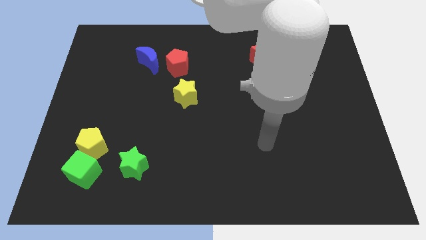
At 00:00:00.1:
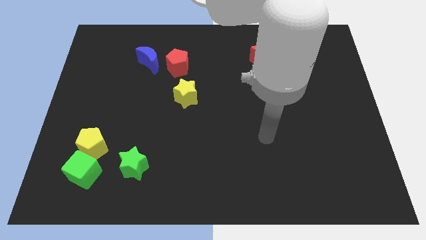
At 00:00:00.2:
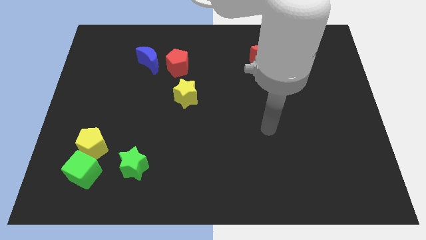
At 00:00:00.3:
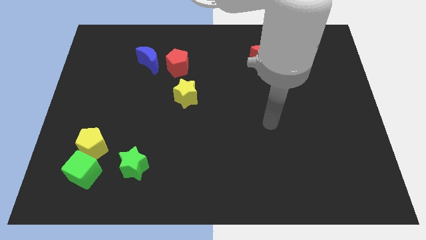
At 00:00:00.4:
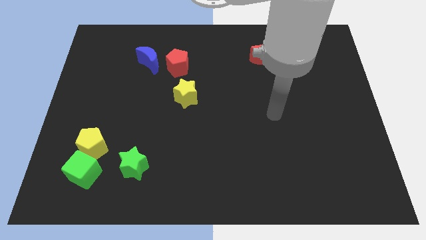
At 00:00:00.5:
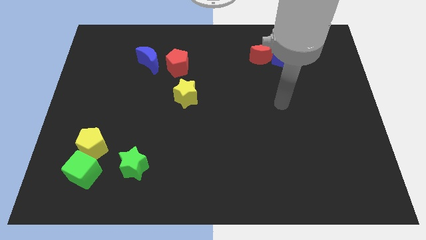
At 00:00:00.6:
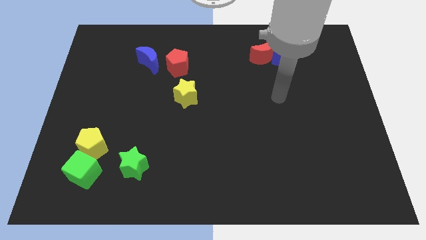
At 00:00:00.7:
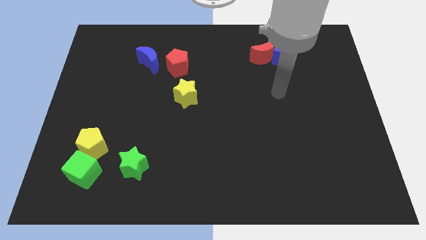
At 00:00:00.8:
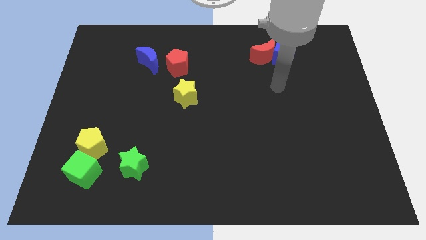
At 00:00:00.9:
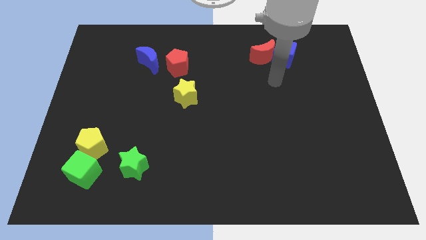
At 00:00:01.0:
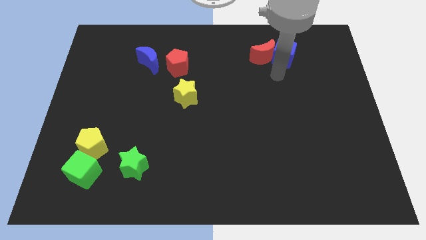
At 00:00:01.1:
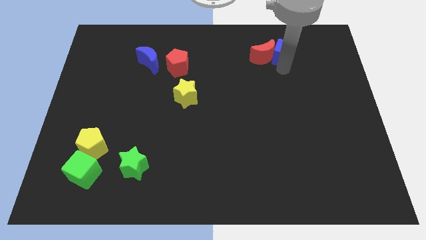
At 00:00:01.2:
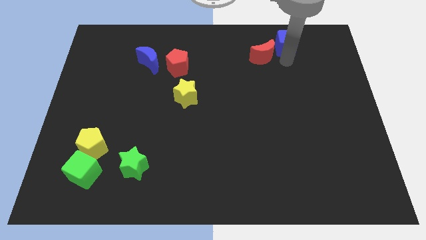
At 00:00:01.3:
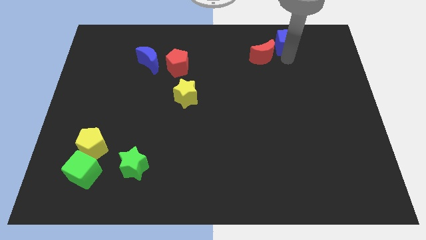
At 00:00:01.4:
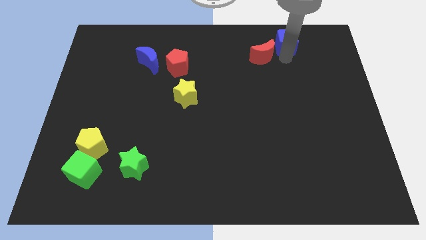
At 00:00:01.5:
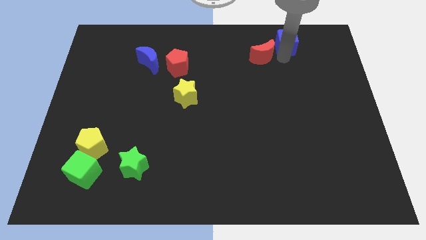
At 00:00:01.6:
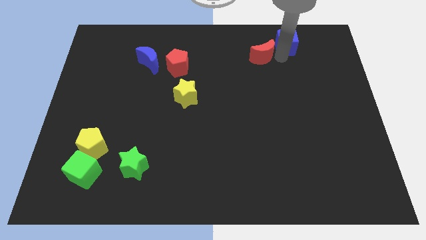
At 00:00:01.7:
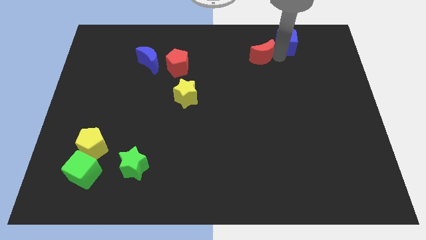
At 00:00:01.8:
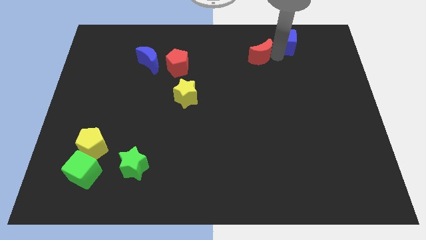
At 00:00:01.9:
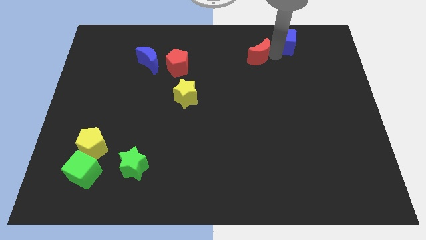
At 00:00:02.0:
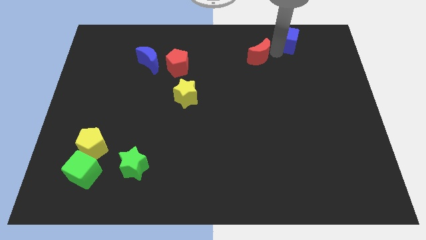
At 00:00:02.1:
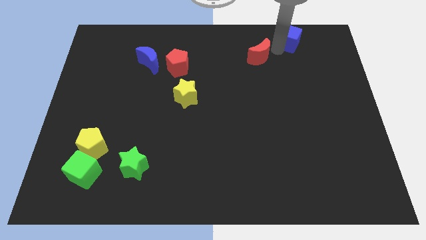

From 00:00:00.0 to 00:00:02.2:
pull the red moon apart from the blue cube

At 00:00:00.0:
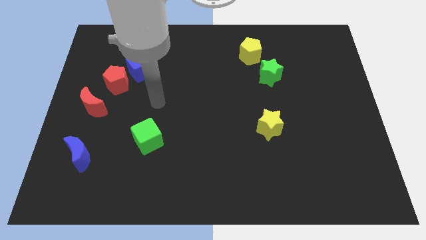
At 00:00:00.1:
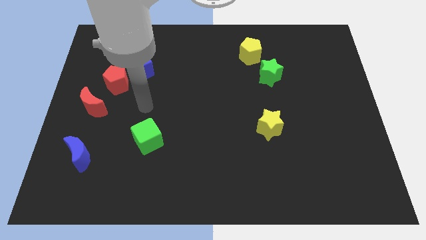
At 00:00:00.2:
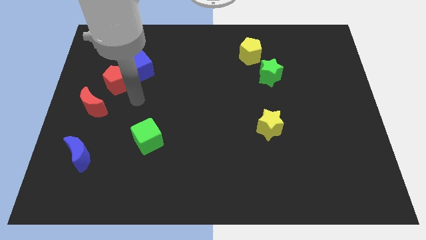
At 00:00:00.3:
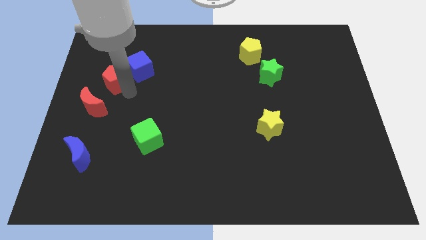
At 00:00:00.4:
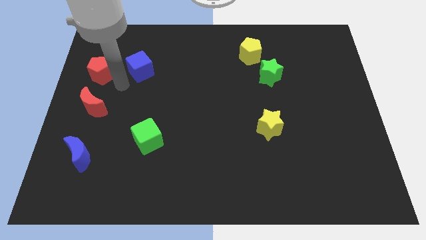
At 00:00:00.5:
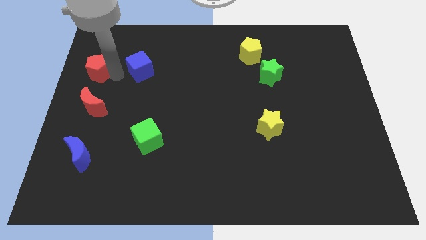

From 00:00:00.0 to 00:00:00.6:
pull the blue cube apart from the red pentagon

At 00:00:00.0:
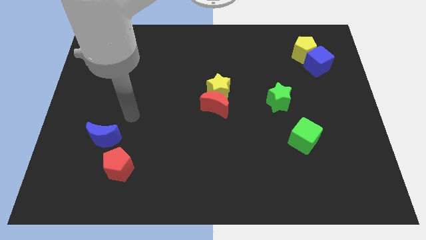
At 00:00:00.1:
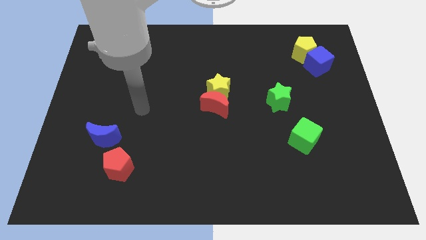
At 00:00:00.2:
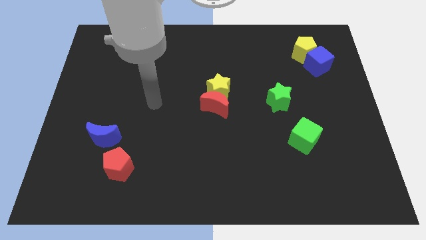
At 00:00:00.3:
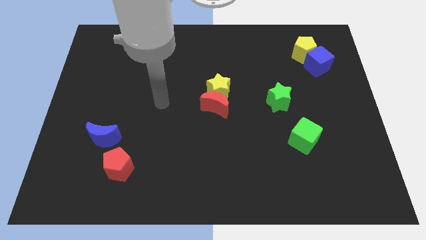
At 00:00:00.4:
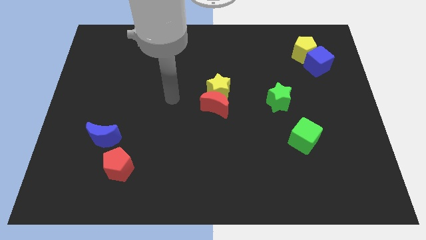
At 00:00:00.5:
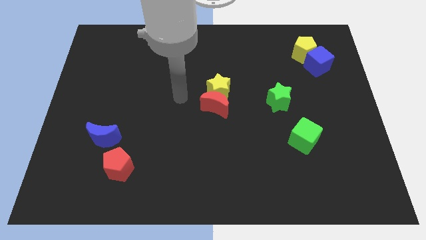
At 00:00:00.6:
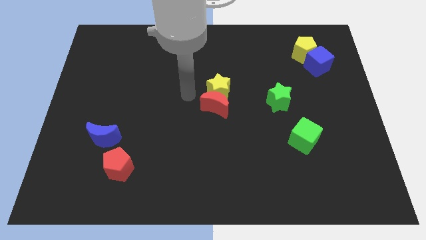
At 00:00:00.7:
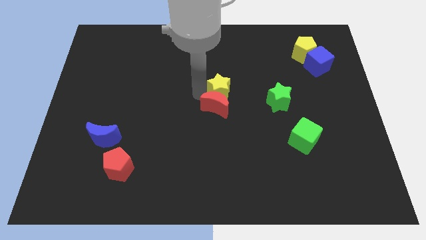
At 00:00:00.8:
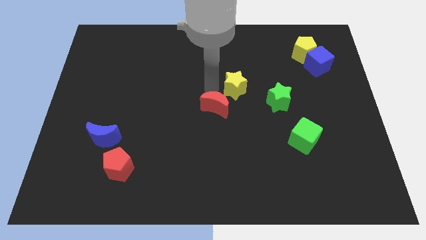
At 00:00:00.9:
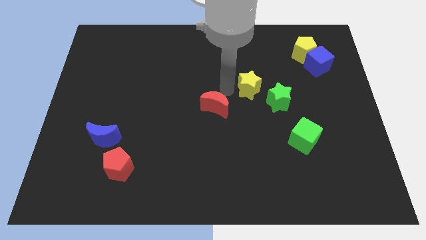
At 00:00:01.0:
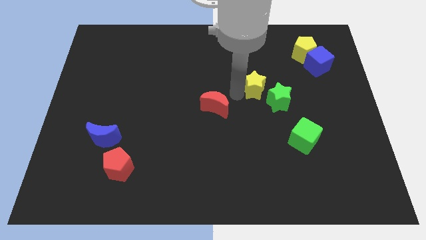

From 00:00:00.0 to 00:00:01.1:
pull the red moon apart from the yellow star

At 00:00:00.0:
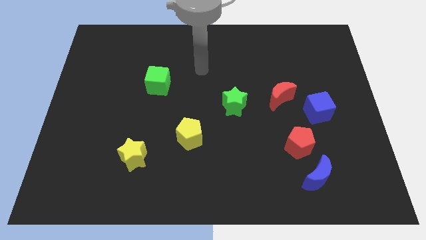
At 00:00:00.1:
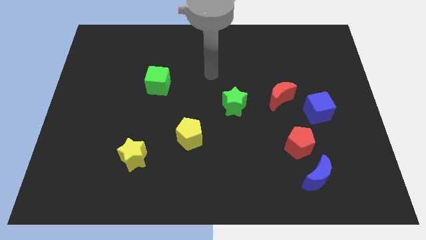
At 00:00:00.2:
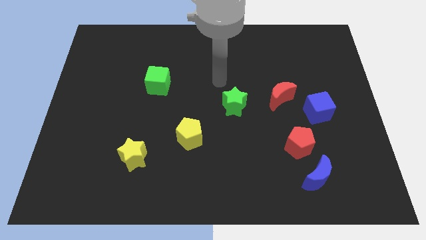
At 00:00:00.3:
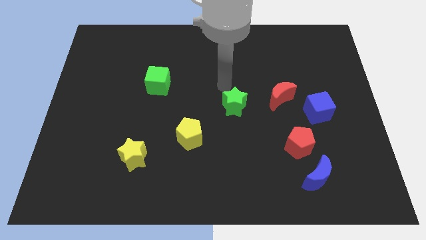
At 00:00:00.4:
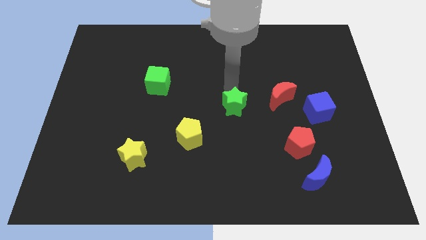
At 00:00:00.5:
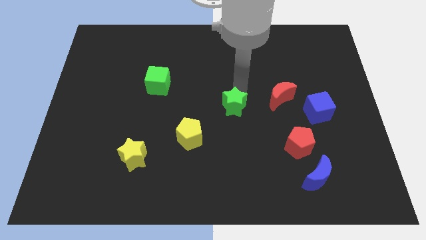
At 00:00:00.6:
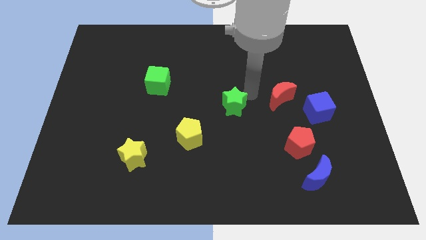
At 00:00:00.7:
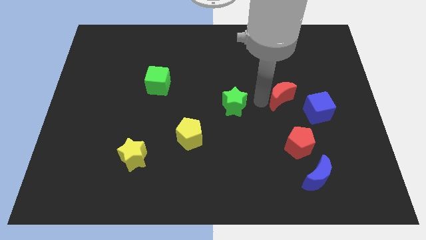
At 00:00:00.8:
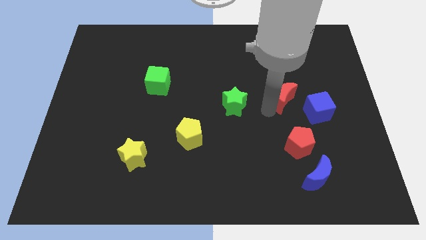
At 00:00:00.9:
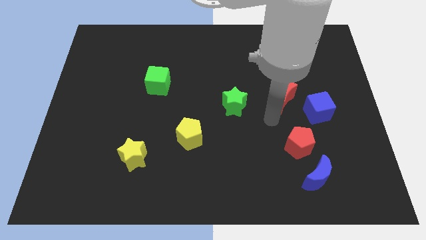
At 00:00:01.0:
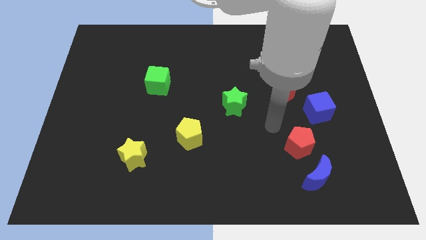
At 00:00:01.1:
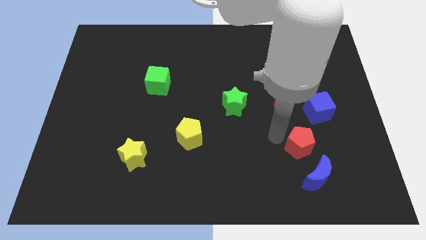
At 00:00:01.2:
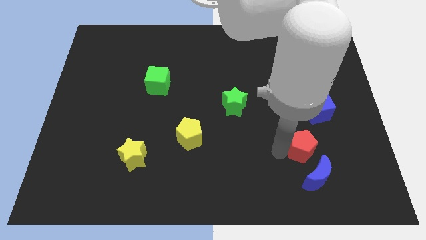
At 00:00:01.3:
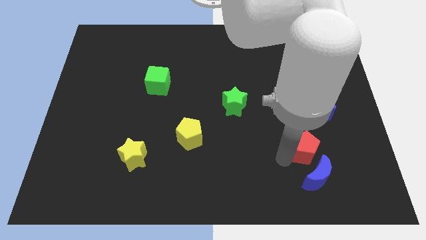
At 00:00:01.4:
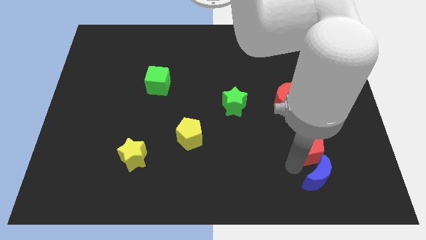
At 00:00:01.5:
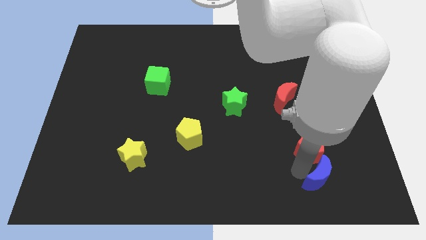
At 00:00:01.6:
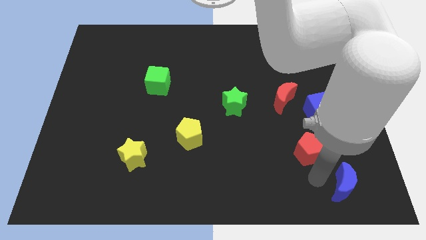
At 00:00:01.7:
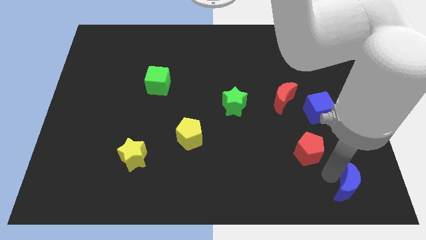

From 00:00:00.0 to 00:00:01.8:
separate the red pentagon from the blue moon

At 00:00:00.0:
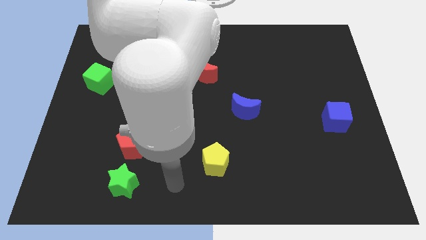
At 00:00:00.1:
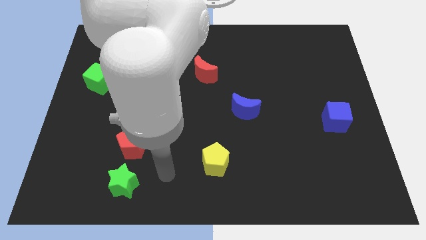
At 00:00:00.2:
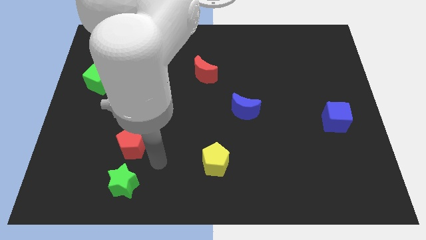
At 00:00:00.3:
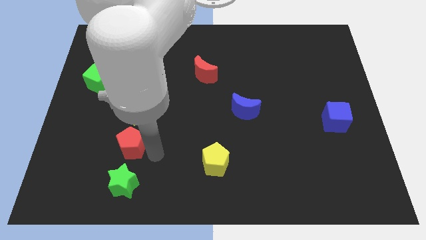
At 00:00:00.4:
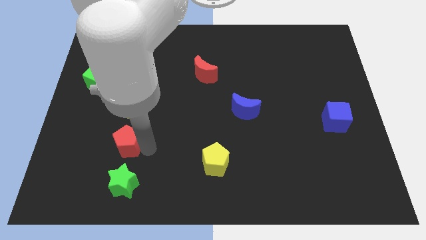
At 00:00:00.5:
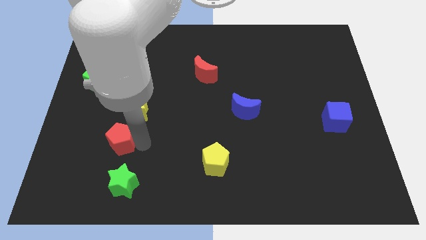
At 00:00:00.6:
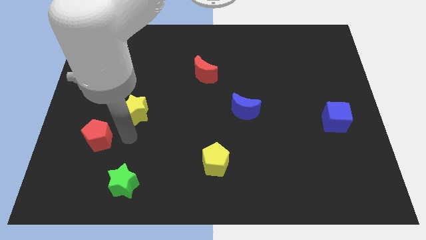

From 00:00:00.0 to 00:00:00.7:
move the yellow star away from the red pentagon

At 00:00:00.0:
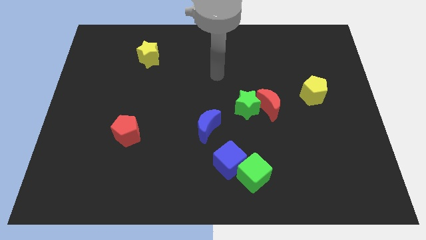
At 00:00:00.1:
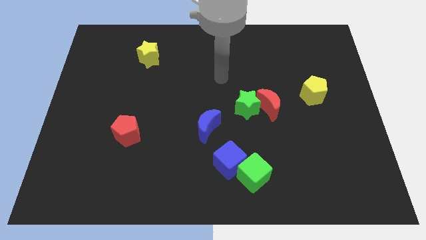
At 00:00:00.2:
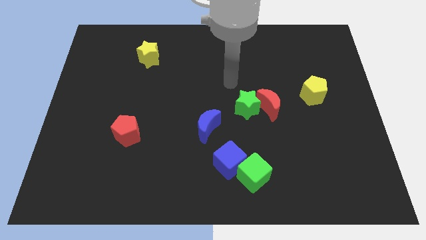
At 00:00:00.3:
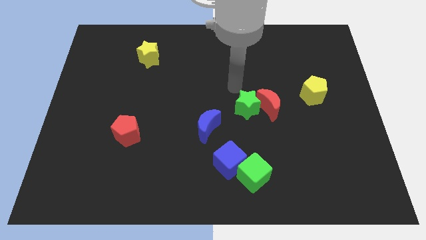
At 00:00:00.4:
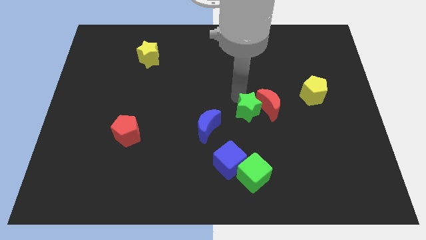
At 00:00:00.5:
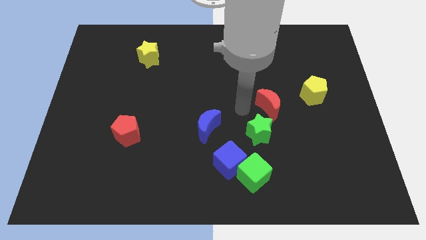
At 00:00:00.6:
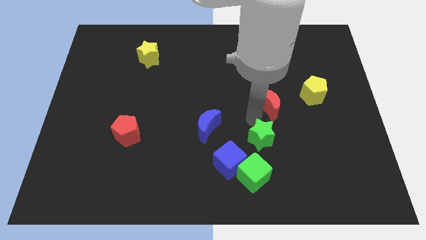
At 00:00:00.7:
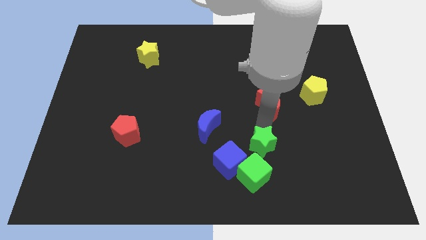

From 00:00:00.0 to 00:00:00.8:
move the red moon away from the green star

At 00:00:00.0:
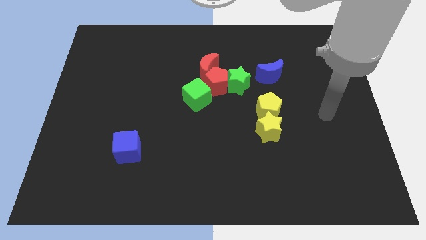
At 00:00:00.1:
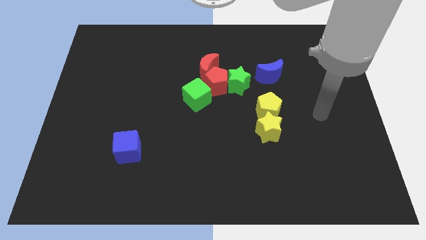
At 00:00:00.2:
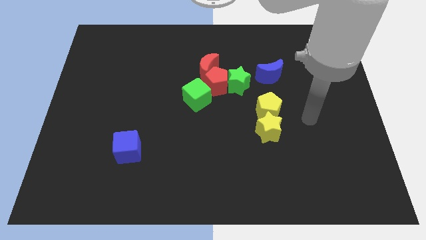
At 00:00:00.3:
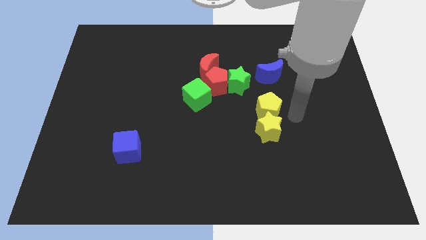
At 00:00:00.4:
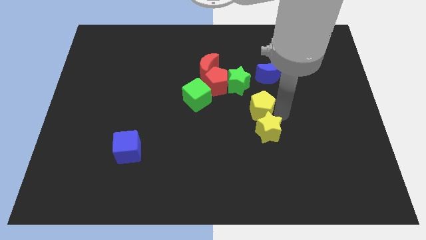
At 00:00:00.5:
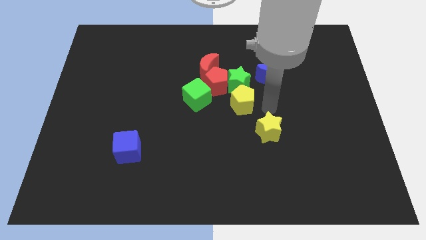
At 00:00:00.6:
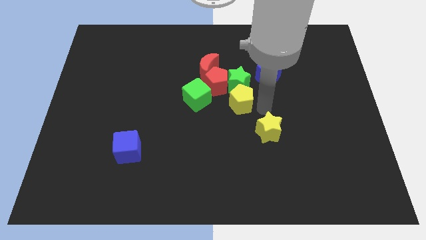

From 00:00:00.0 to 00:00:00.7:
separate the yellow star from the yellow pentagon

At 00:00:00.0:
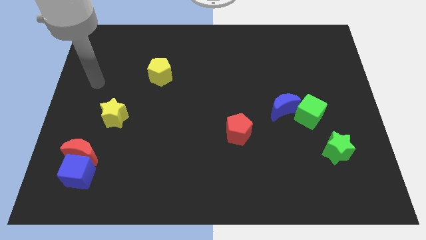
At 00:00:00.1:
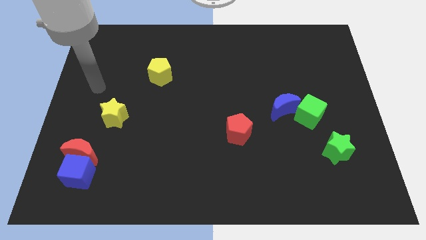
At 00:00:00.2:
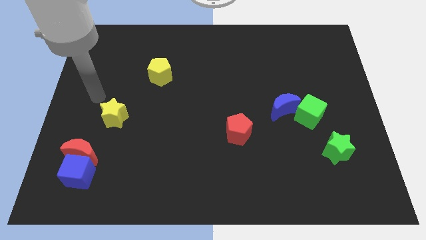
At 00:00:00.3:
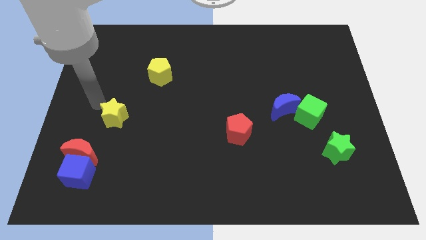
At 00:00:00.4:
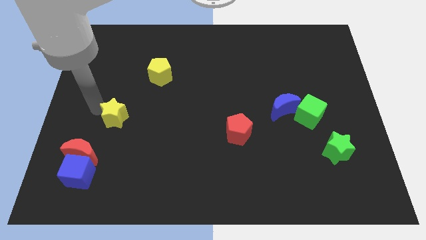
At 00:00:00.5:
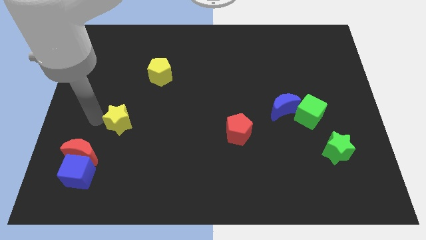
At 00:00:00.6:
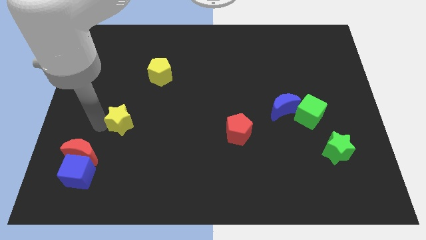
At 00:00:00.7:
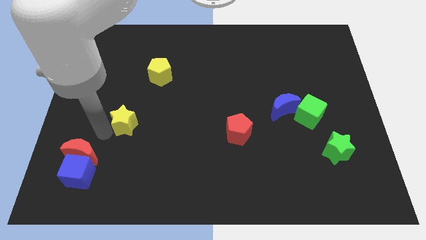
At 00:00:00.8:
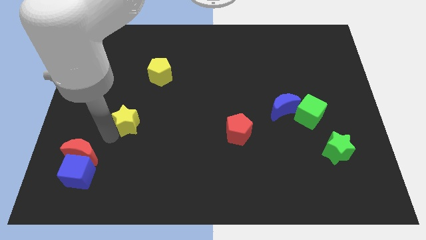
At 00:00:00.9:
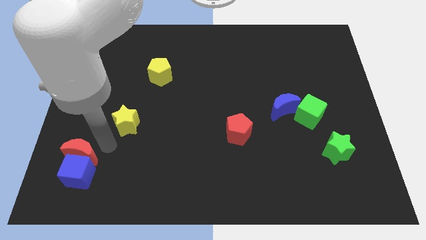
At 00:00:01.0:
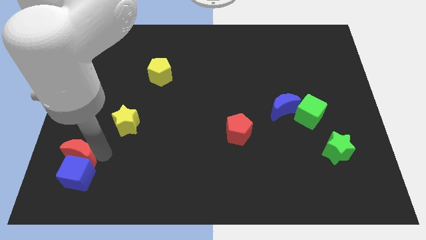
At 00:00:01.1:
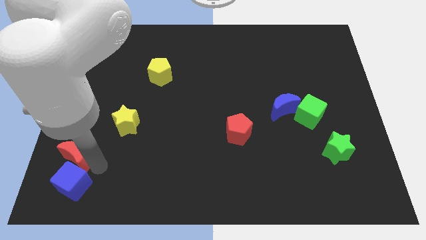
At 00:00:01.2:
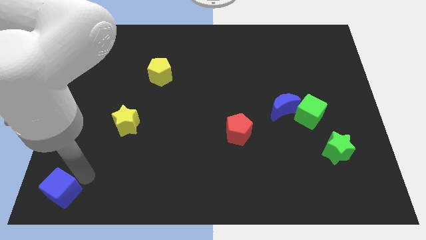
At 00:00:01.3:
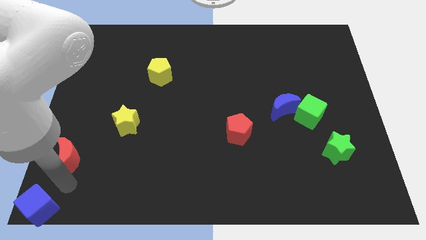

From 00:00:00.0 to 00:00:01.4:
move the red moon away from the blue cube
